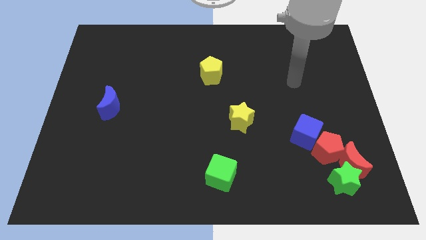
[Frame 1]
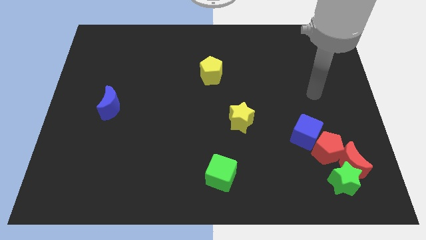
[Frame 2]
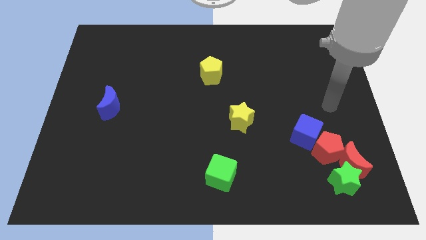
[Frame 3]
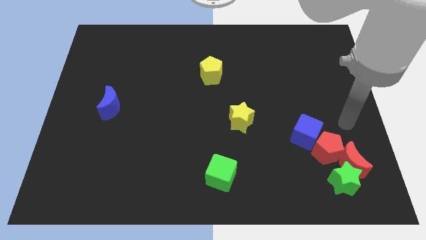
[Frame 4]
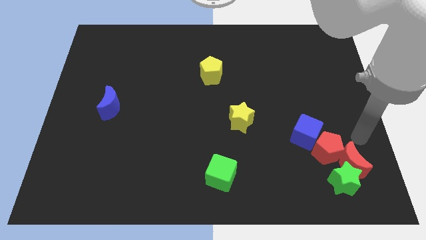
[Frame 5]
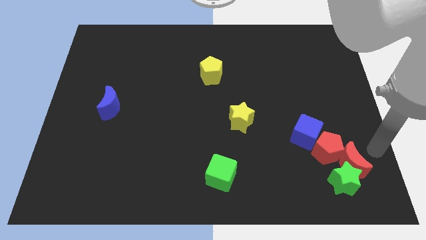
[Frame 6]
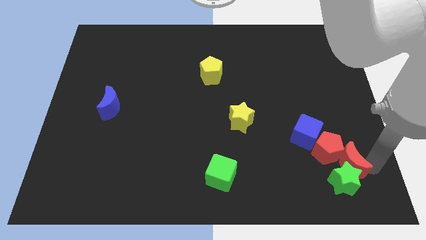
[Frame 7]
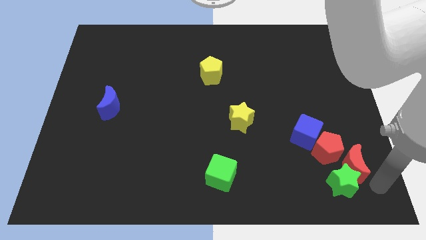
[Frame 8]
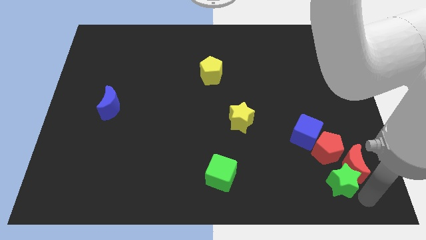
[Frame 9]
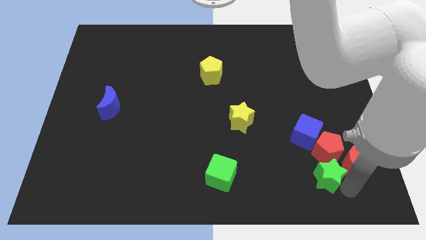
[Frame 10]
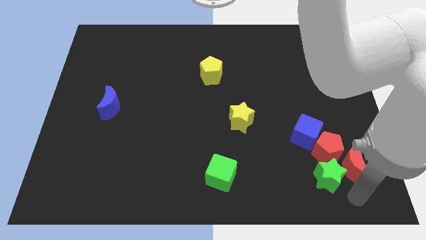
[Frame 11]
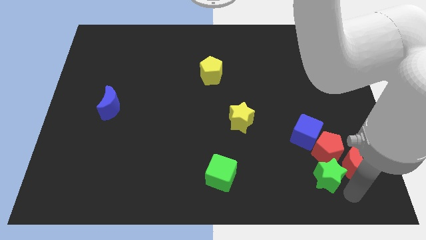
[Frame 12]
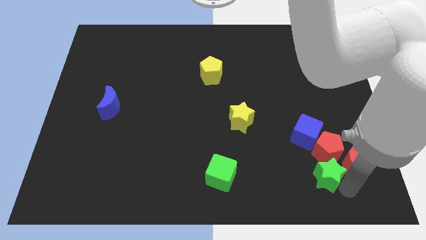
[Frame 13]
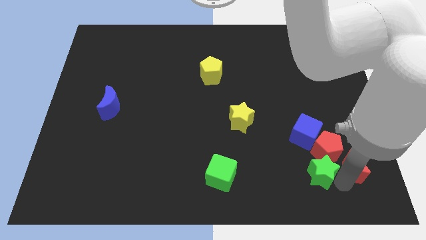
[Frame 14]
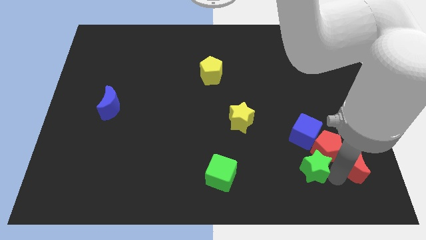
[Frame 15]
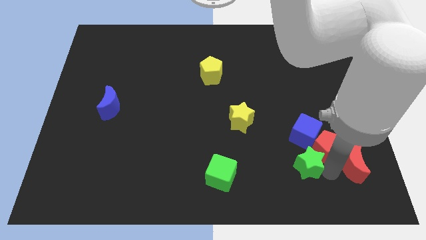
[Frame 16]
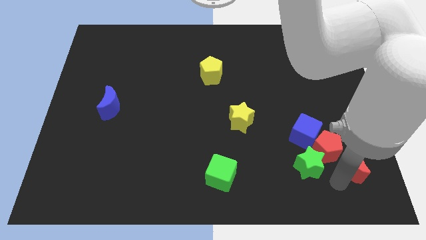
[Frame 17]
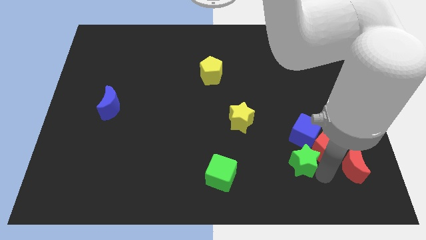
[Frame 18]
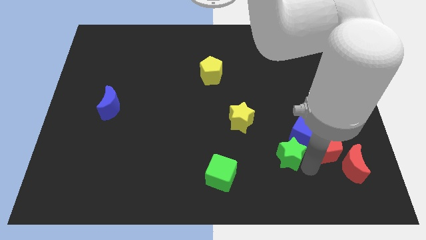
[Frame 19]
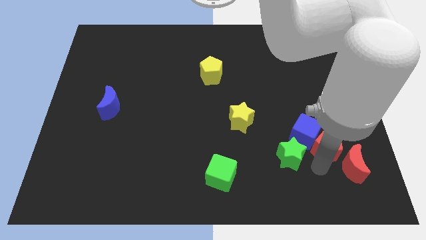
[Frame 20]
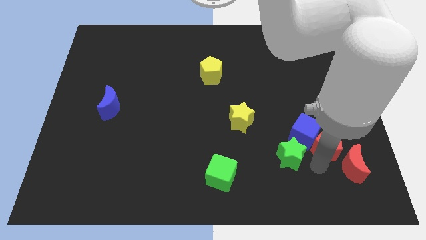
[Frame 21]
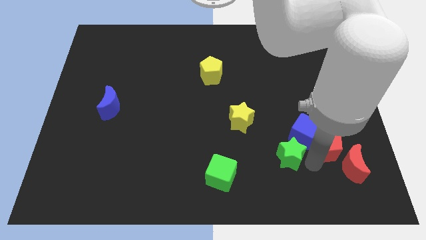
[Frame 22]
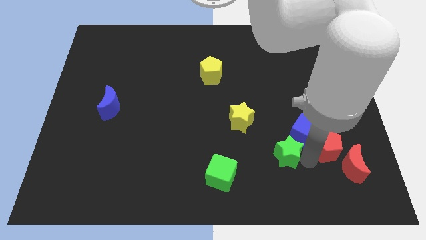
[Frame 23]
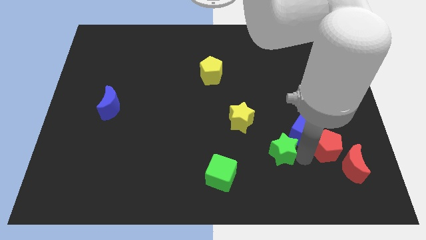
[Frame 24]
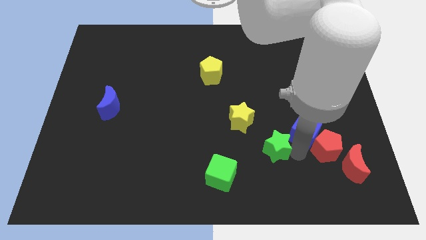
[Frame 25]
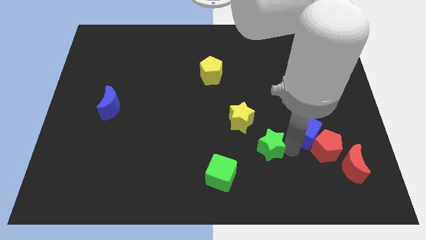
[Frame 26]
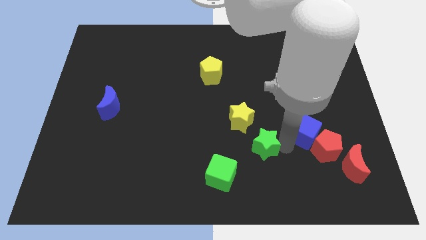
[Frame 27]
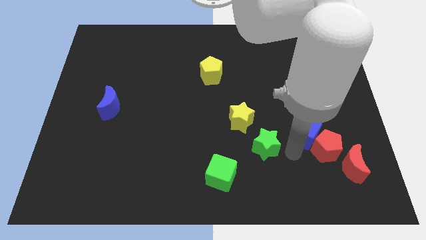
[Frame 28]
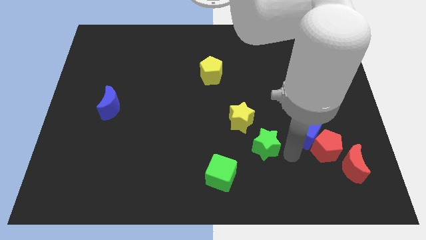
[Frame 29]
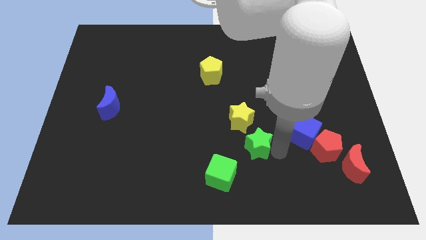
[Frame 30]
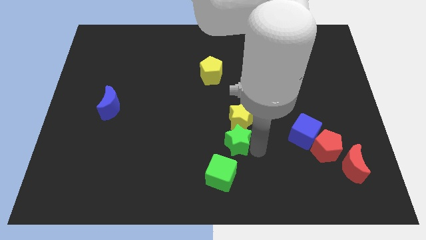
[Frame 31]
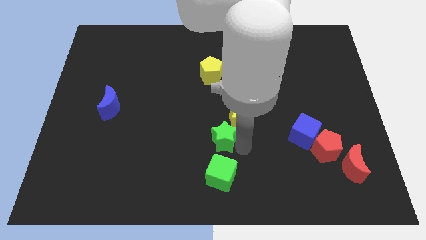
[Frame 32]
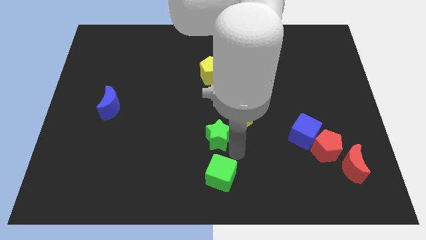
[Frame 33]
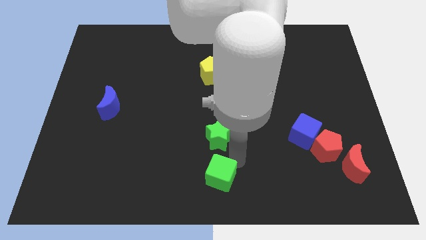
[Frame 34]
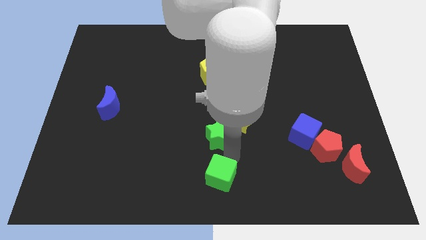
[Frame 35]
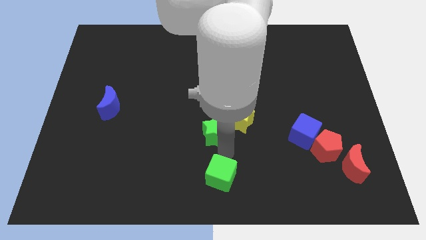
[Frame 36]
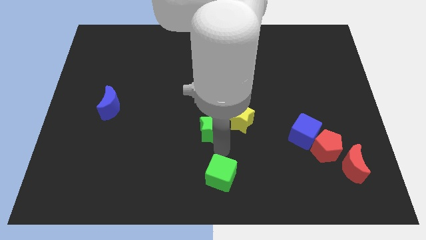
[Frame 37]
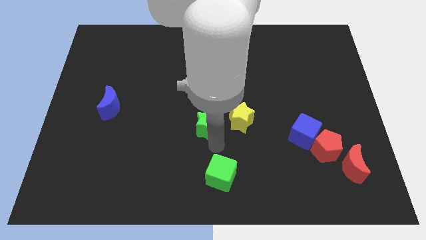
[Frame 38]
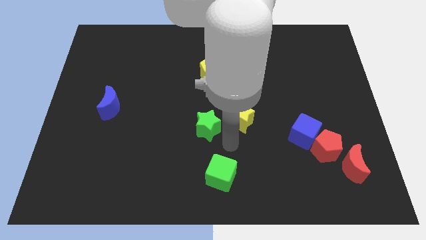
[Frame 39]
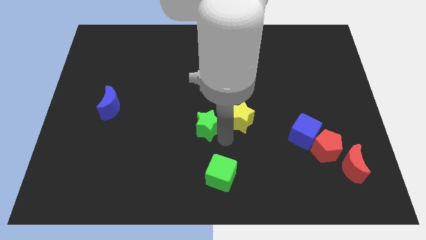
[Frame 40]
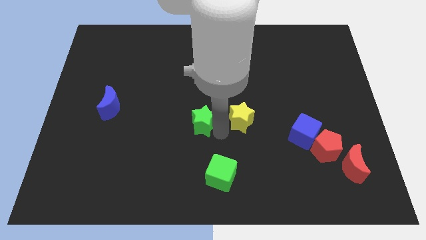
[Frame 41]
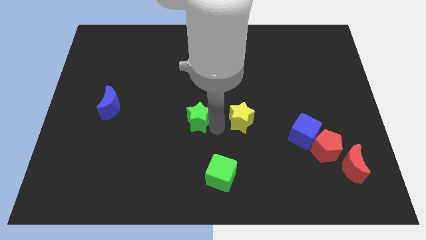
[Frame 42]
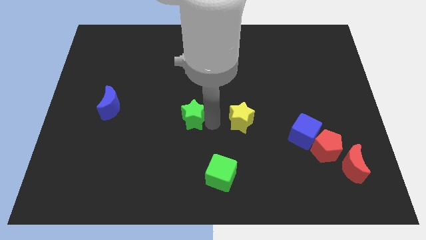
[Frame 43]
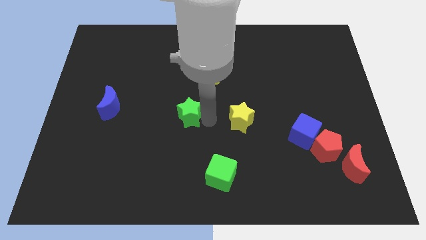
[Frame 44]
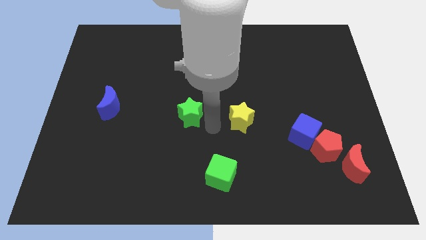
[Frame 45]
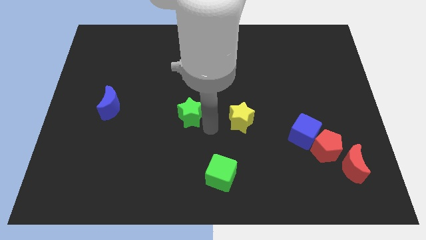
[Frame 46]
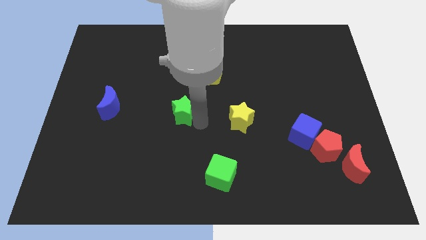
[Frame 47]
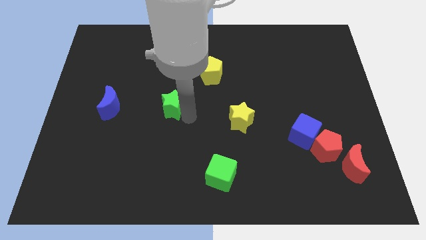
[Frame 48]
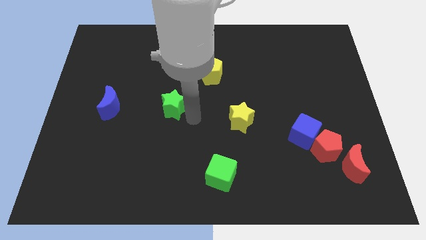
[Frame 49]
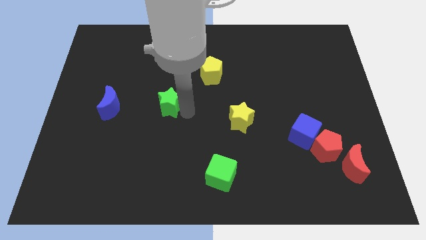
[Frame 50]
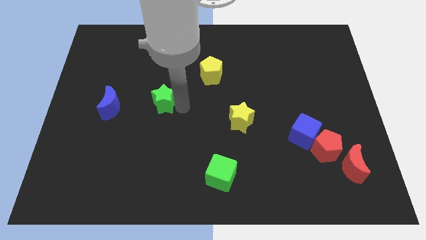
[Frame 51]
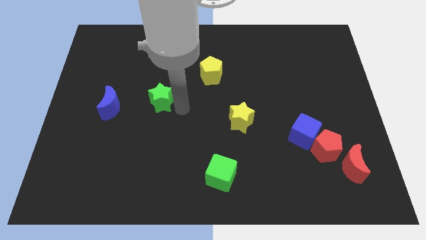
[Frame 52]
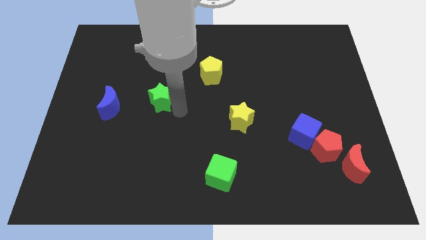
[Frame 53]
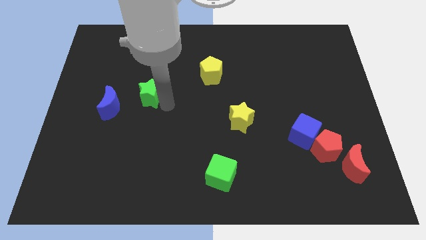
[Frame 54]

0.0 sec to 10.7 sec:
move the green star diagonally up and to the right of the blue moon

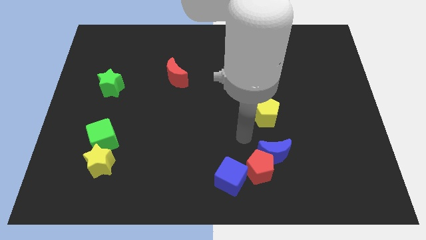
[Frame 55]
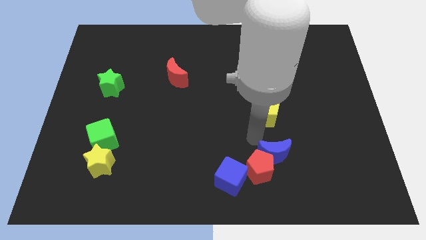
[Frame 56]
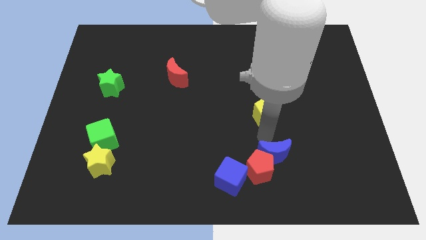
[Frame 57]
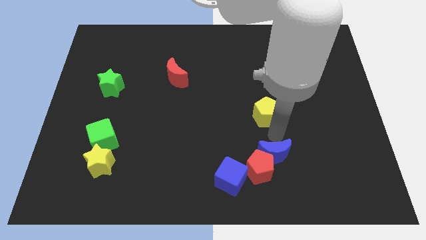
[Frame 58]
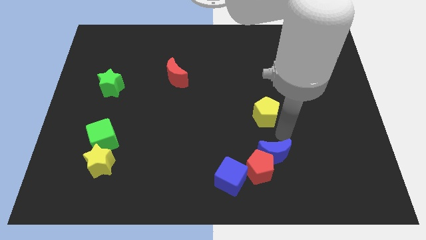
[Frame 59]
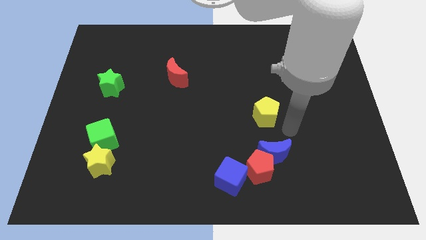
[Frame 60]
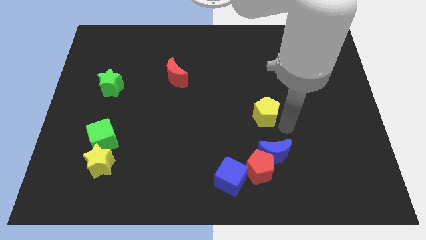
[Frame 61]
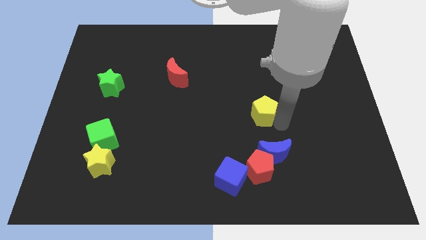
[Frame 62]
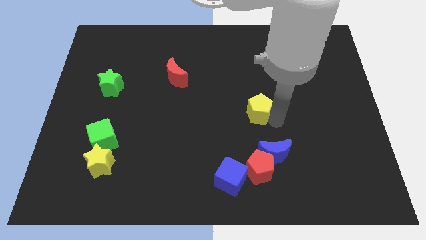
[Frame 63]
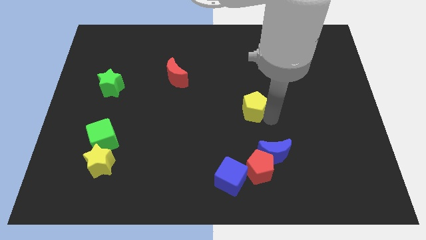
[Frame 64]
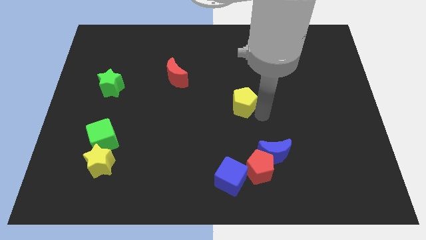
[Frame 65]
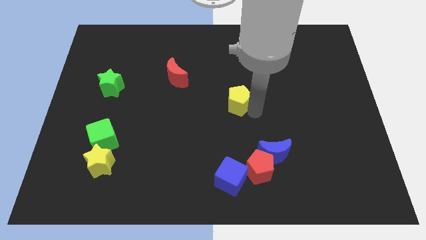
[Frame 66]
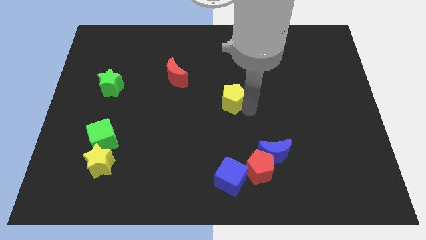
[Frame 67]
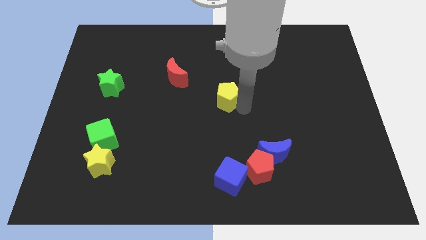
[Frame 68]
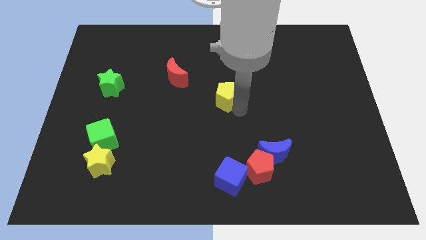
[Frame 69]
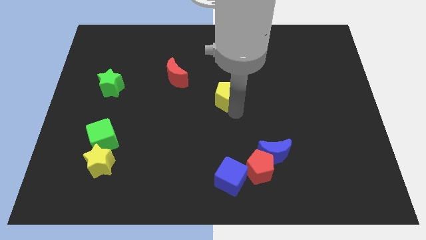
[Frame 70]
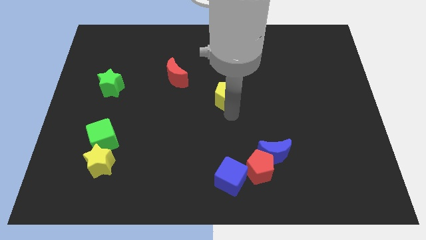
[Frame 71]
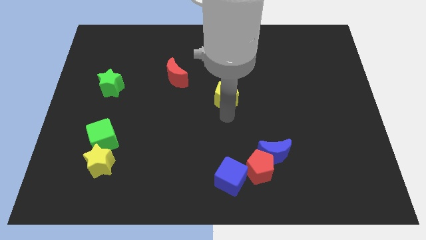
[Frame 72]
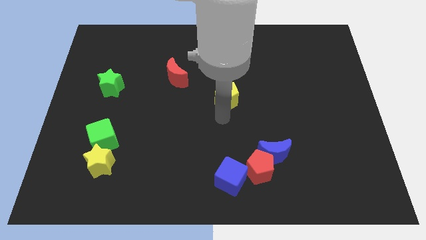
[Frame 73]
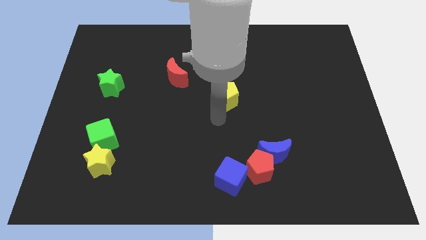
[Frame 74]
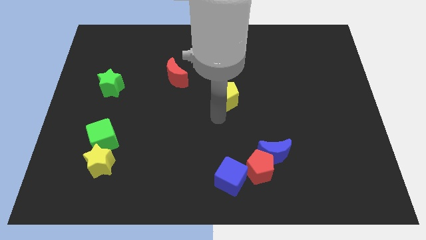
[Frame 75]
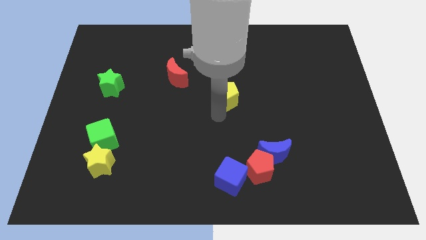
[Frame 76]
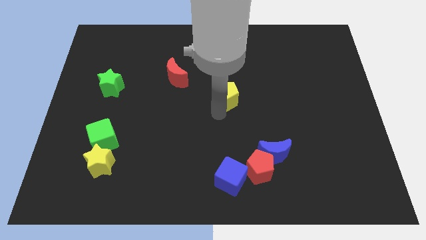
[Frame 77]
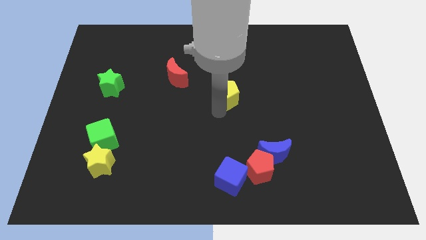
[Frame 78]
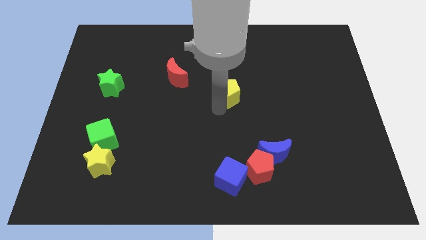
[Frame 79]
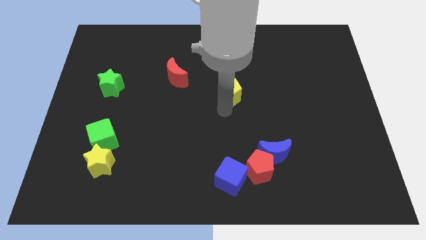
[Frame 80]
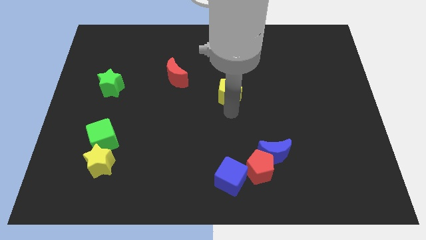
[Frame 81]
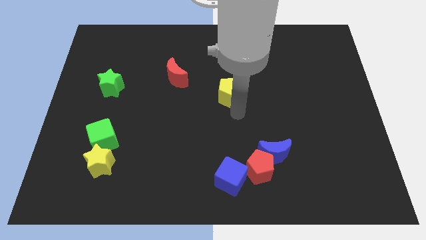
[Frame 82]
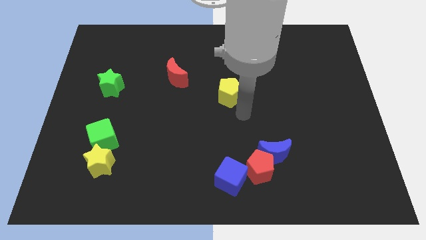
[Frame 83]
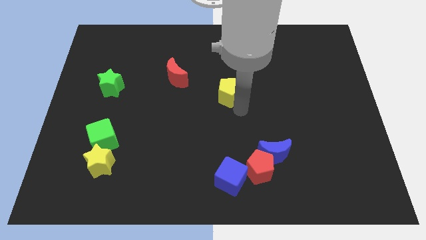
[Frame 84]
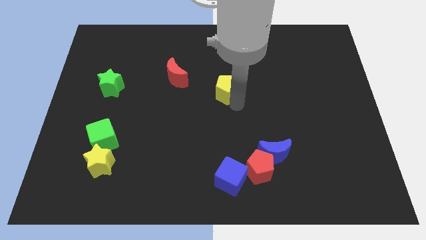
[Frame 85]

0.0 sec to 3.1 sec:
slide the yellow pentagon to the right of the red moon

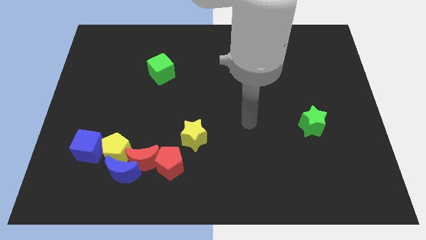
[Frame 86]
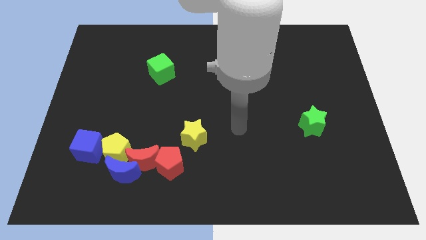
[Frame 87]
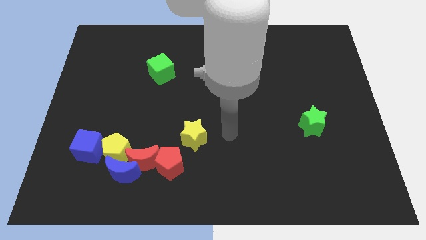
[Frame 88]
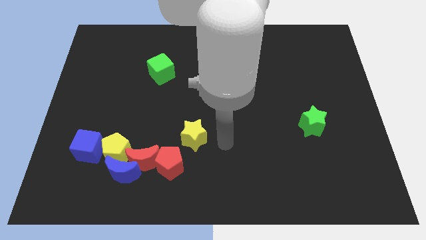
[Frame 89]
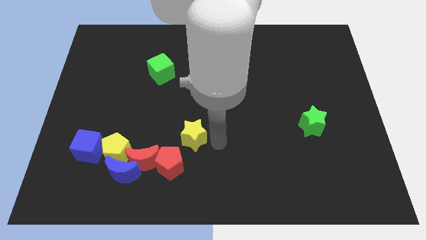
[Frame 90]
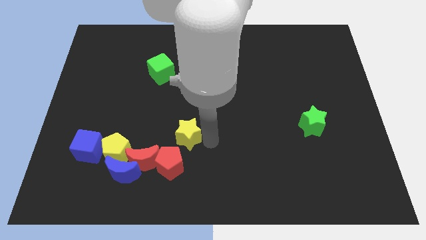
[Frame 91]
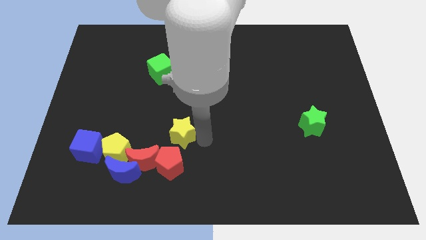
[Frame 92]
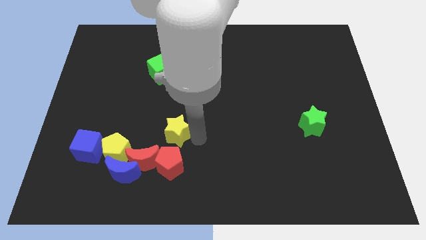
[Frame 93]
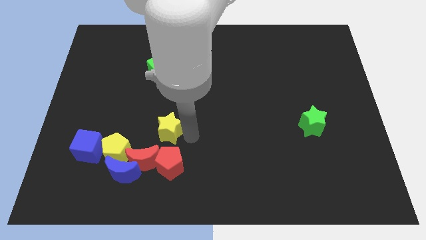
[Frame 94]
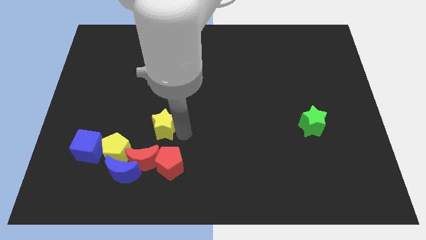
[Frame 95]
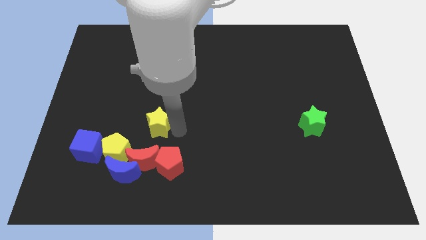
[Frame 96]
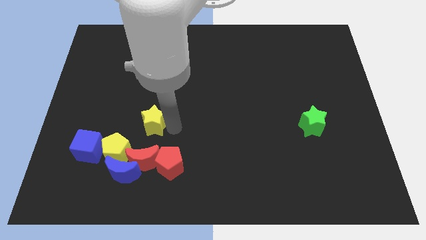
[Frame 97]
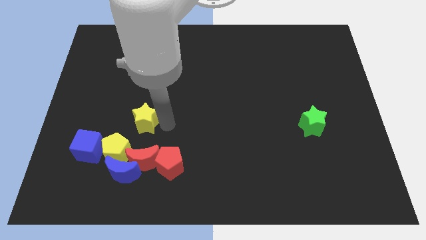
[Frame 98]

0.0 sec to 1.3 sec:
put the yellow star to the top of the blue moon
